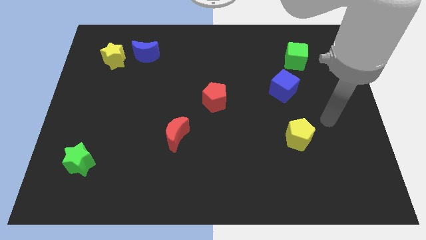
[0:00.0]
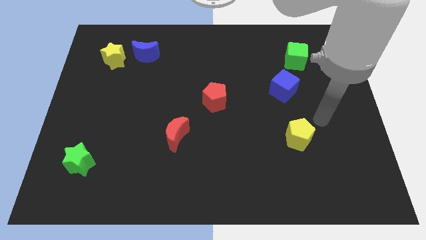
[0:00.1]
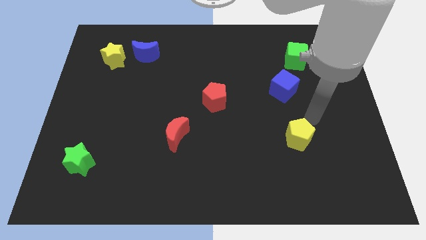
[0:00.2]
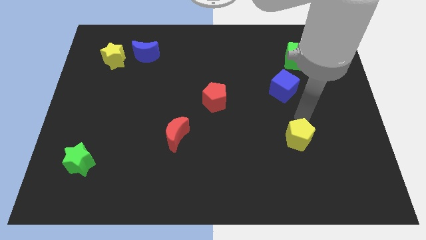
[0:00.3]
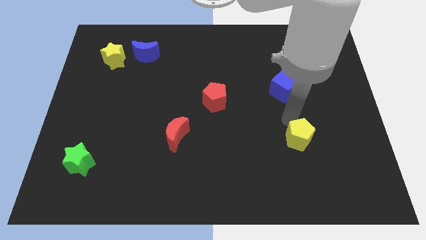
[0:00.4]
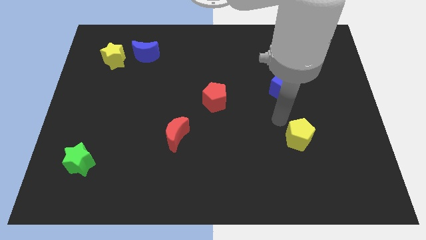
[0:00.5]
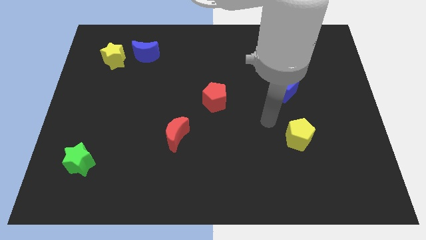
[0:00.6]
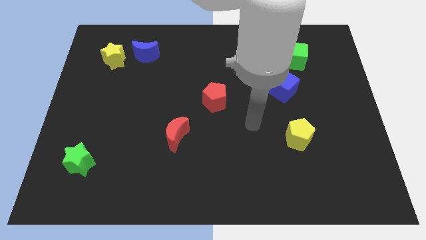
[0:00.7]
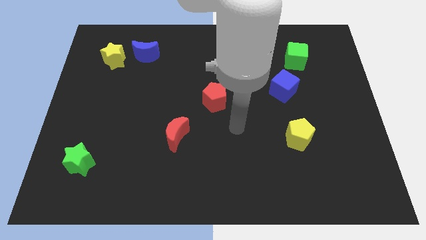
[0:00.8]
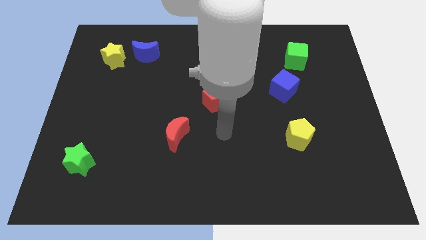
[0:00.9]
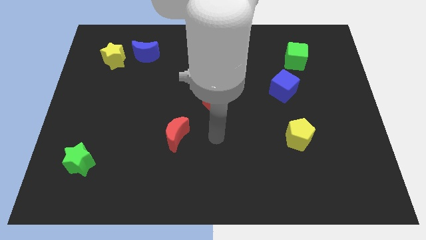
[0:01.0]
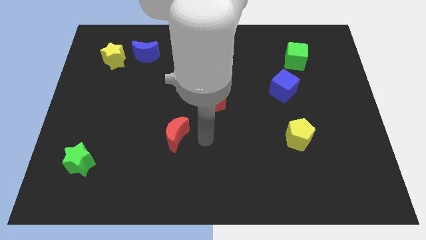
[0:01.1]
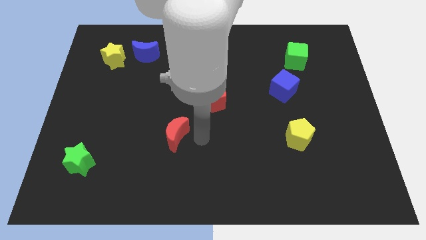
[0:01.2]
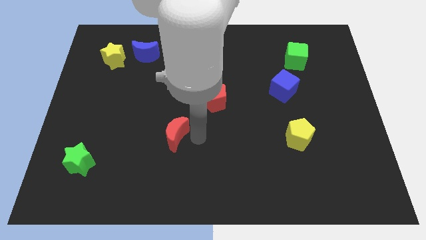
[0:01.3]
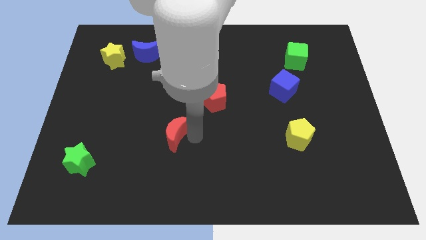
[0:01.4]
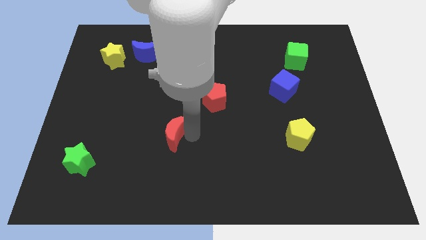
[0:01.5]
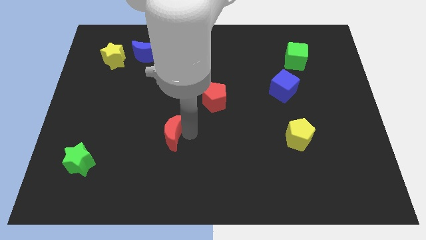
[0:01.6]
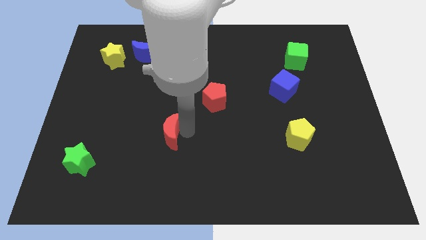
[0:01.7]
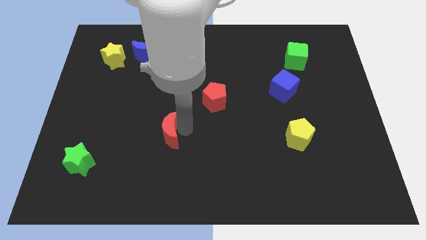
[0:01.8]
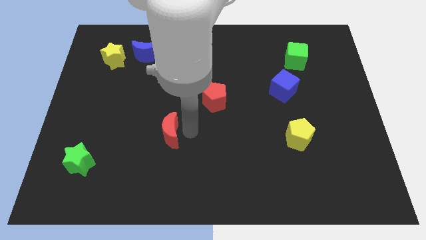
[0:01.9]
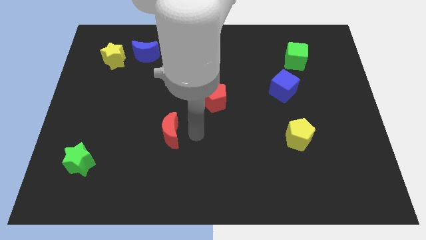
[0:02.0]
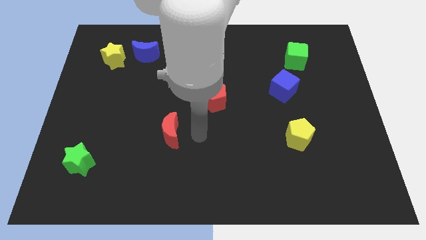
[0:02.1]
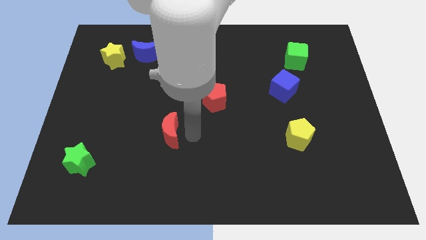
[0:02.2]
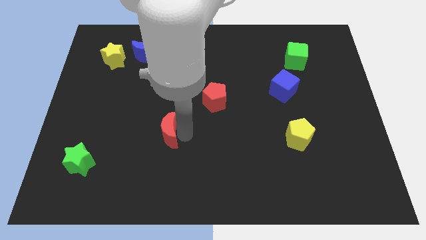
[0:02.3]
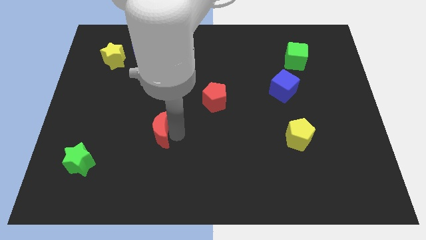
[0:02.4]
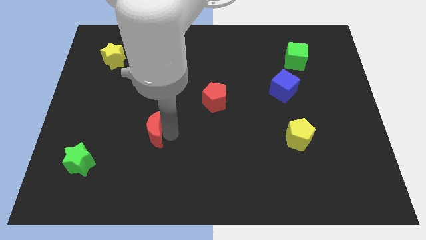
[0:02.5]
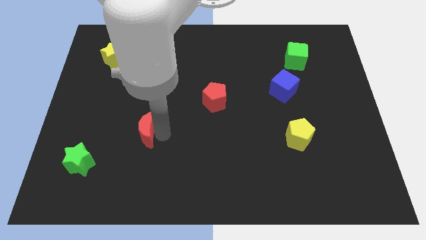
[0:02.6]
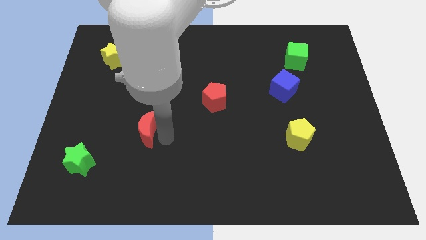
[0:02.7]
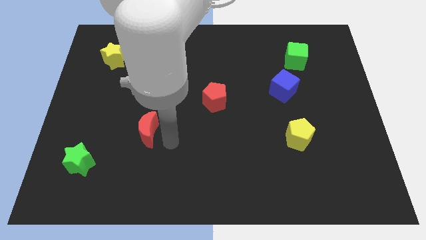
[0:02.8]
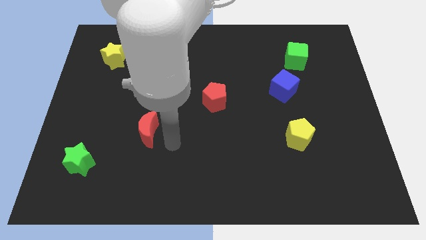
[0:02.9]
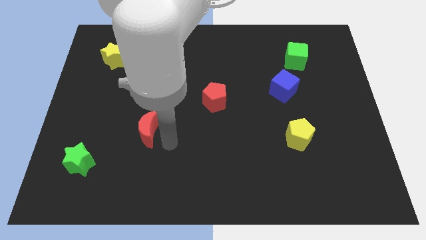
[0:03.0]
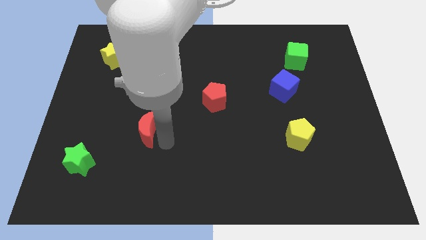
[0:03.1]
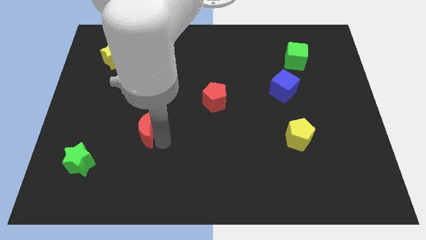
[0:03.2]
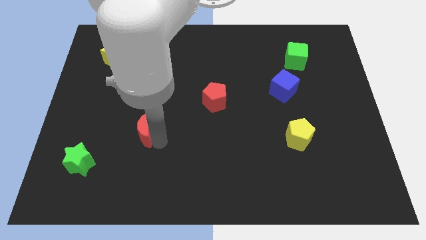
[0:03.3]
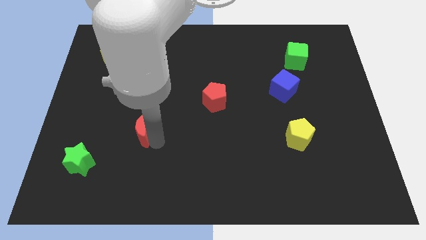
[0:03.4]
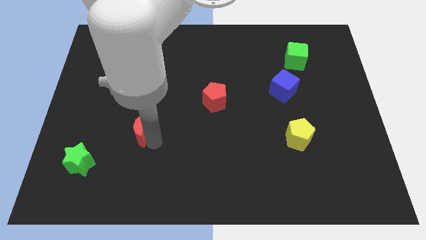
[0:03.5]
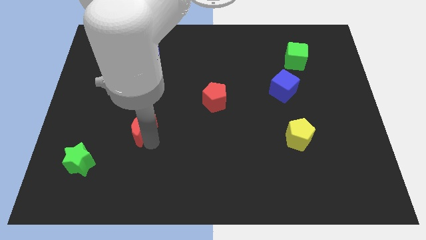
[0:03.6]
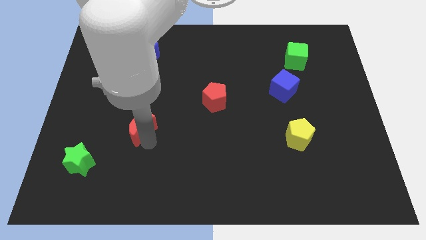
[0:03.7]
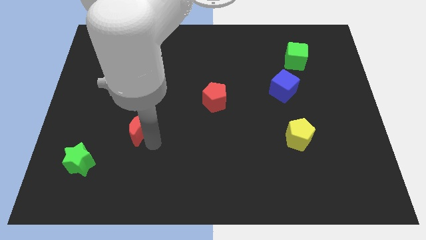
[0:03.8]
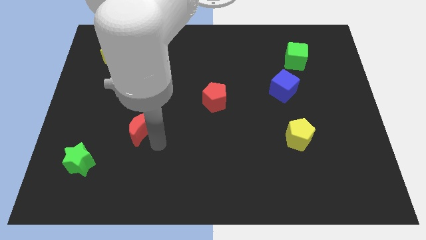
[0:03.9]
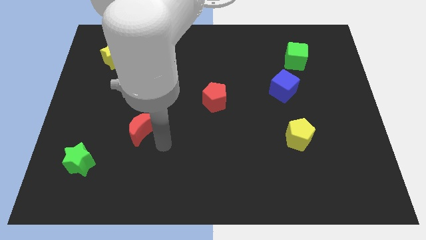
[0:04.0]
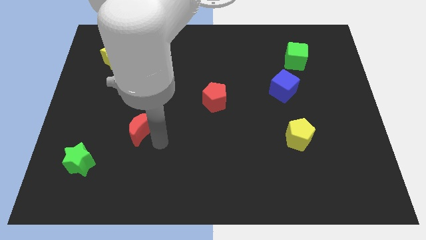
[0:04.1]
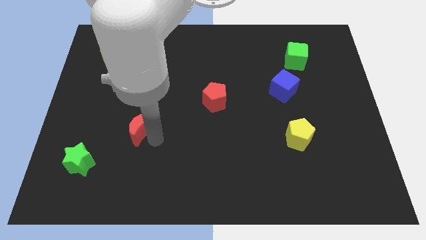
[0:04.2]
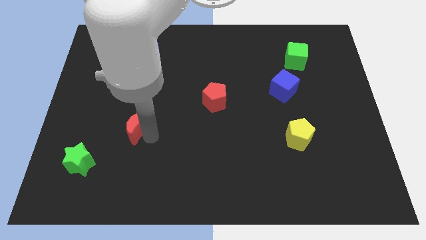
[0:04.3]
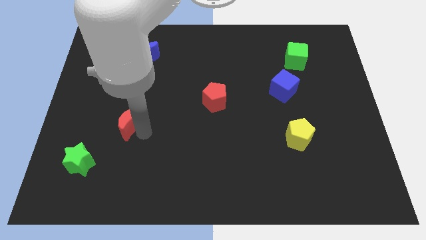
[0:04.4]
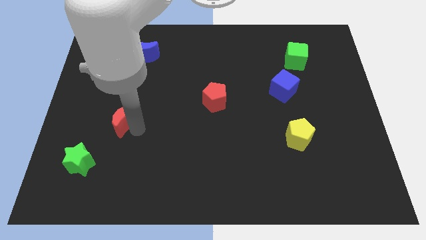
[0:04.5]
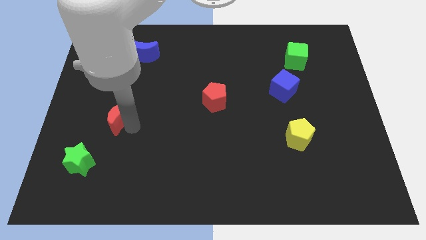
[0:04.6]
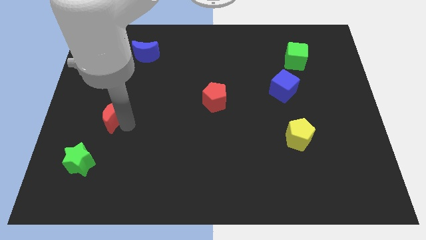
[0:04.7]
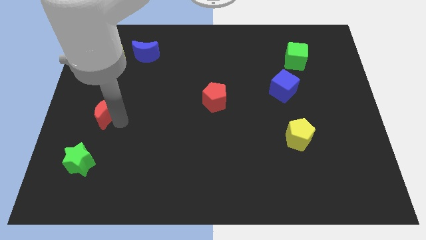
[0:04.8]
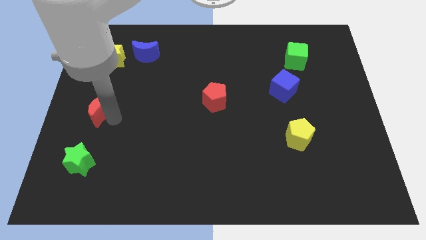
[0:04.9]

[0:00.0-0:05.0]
push the red moon to the left side of the board

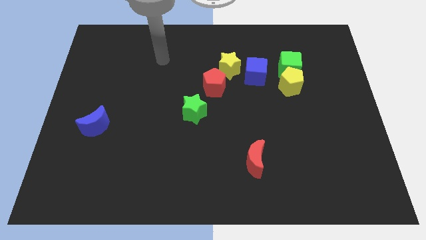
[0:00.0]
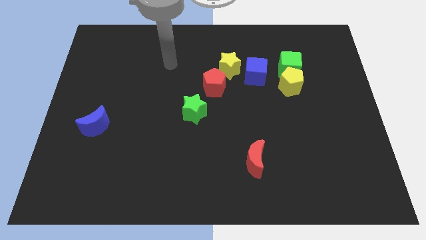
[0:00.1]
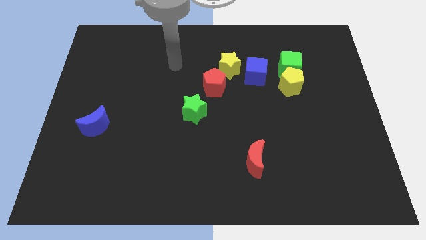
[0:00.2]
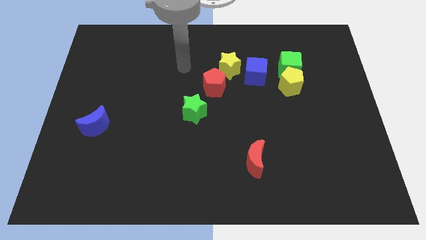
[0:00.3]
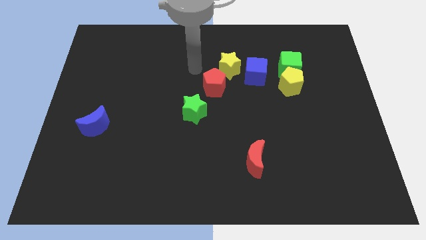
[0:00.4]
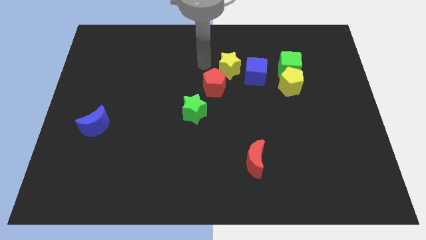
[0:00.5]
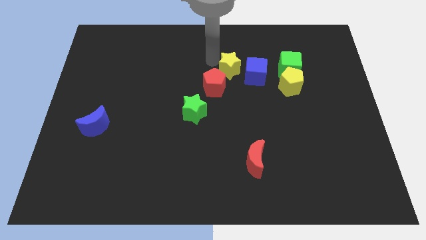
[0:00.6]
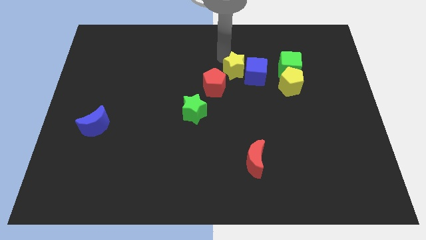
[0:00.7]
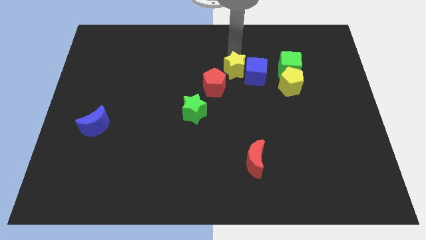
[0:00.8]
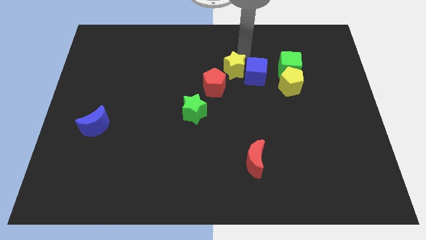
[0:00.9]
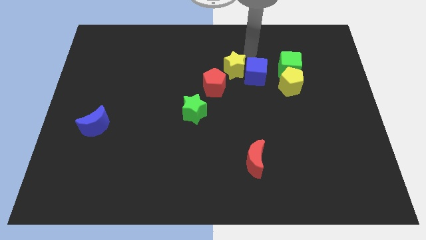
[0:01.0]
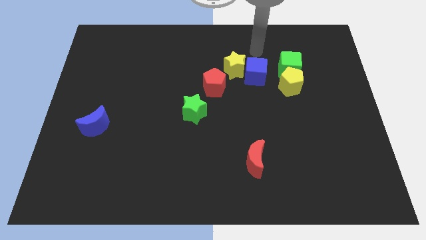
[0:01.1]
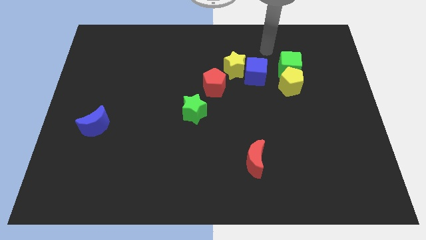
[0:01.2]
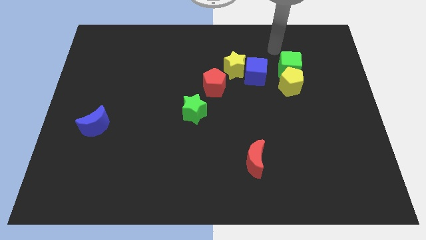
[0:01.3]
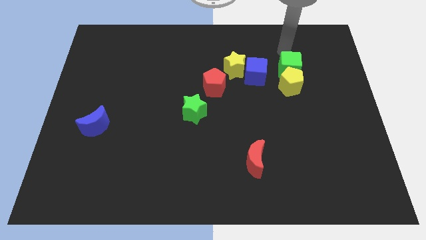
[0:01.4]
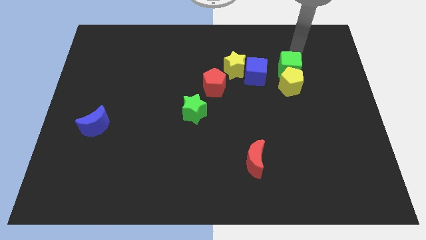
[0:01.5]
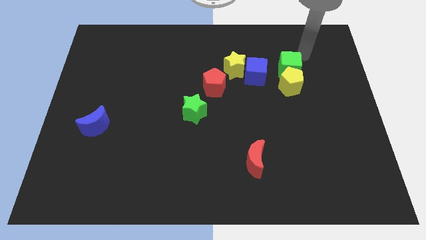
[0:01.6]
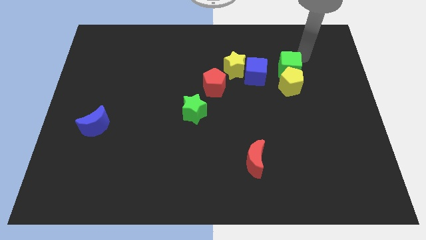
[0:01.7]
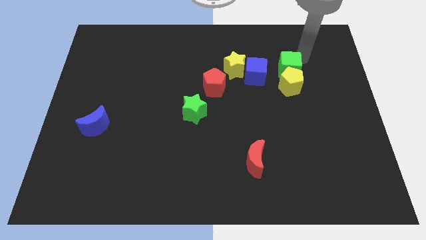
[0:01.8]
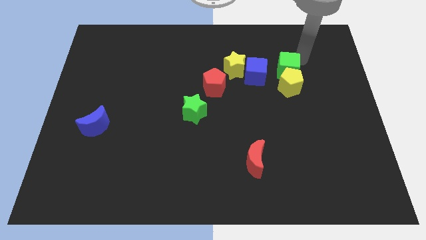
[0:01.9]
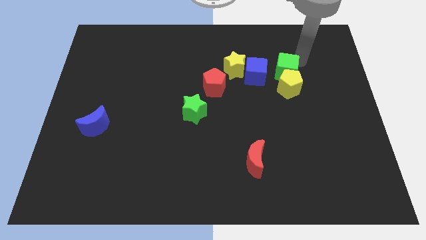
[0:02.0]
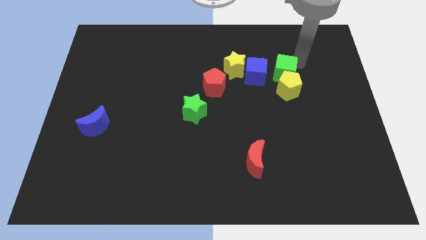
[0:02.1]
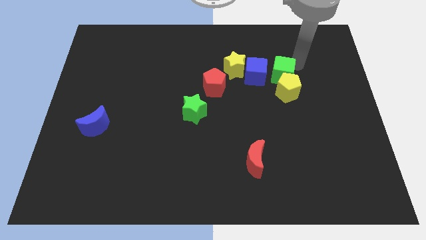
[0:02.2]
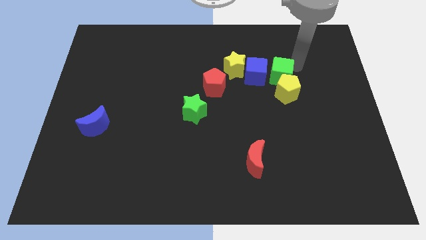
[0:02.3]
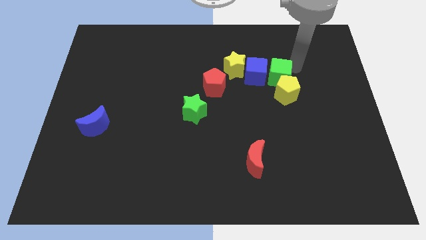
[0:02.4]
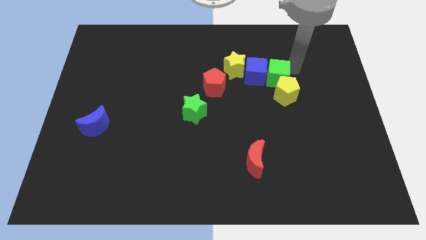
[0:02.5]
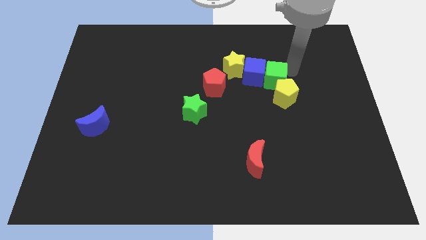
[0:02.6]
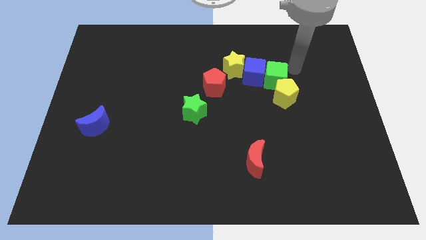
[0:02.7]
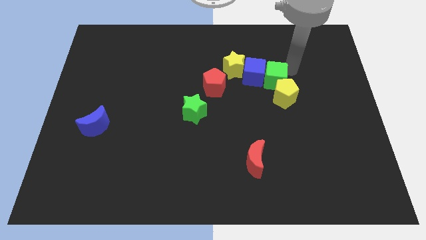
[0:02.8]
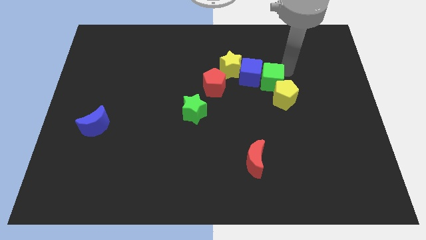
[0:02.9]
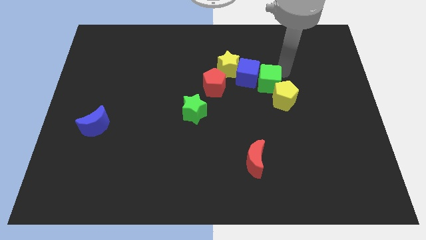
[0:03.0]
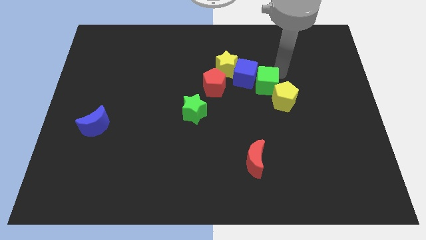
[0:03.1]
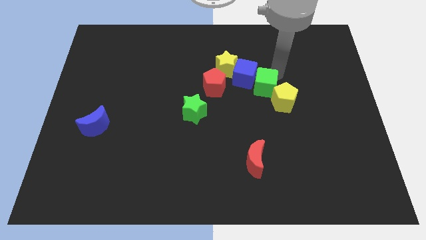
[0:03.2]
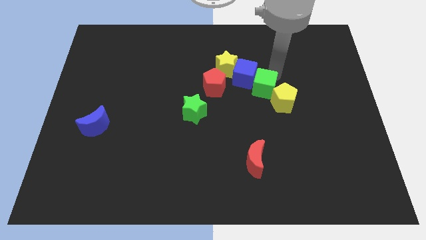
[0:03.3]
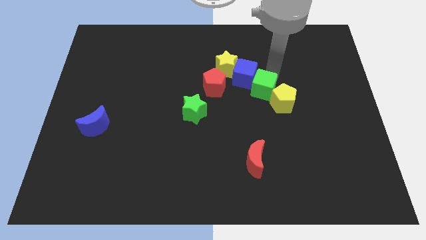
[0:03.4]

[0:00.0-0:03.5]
put the green cube to the center
